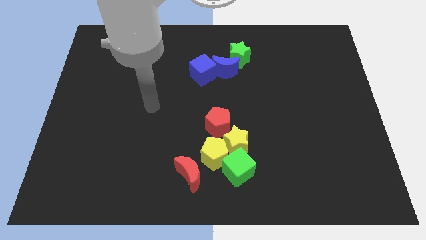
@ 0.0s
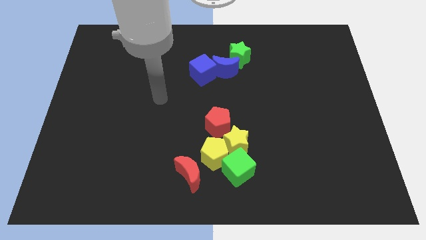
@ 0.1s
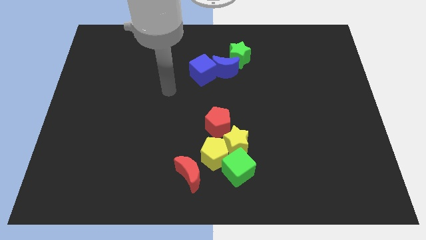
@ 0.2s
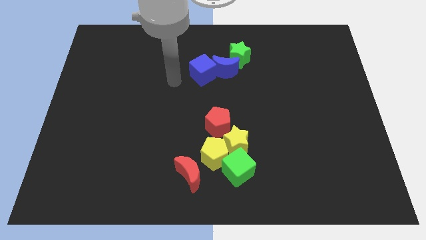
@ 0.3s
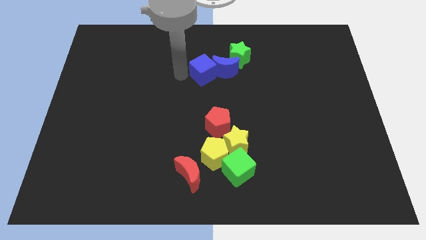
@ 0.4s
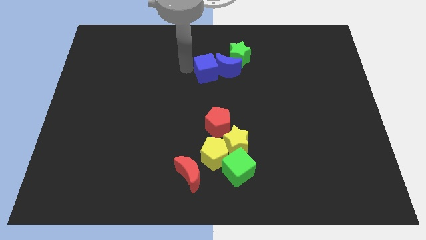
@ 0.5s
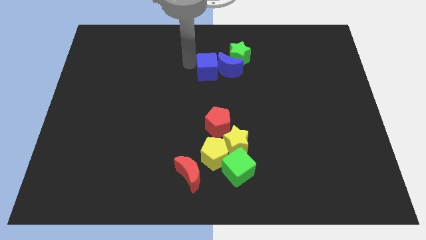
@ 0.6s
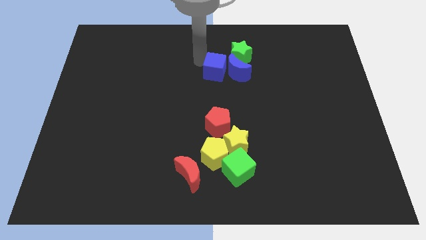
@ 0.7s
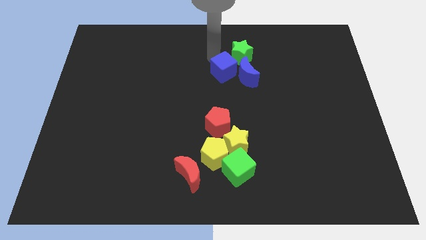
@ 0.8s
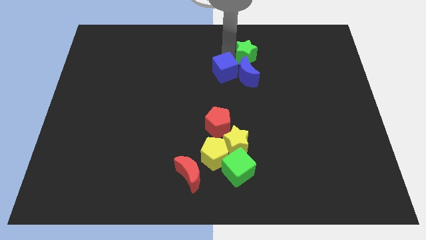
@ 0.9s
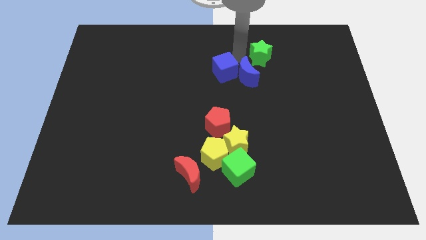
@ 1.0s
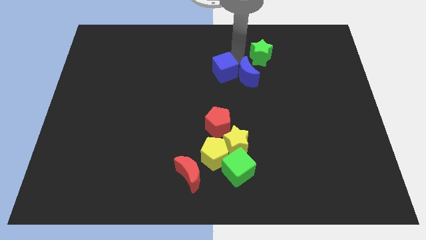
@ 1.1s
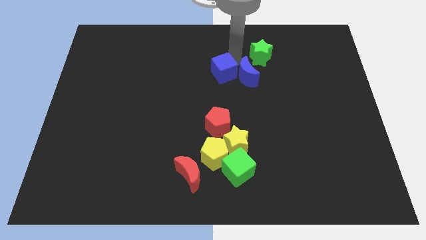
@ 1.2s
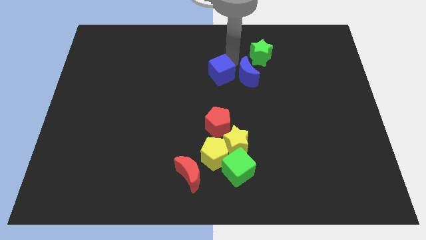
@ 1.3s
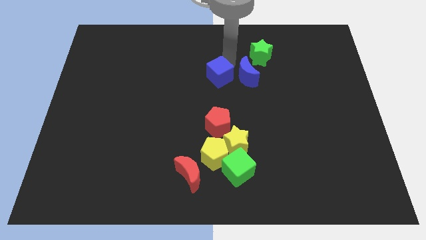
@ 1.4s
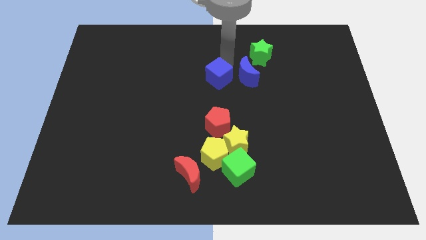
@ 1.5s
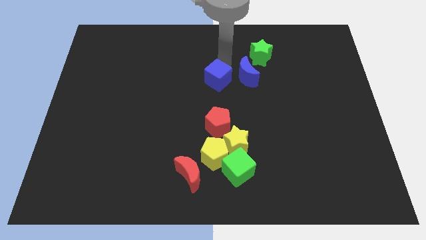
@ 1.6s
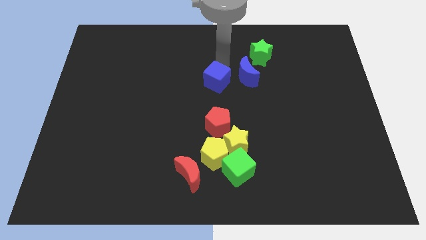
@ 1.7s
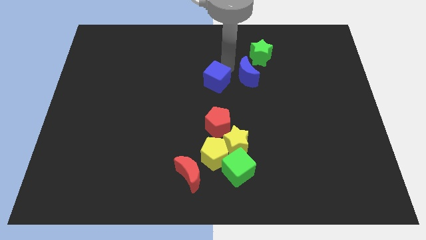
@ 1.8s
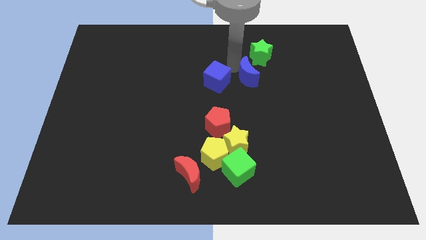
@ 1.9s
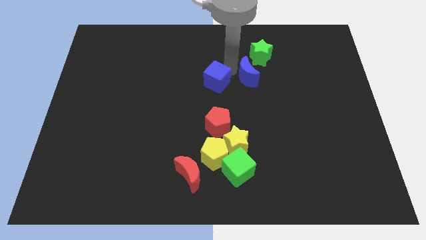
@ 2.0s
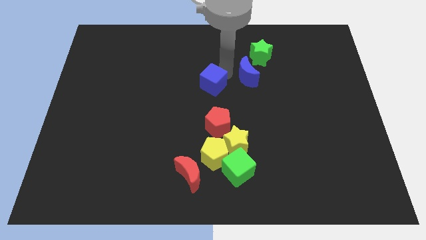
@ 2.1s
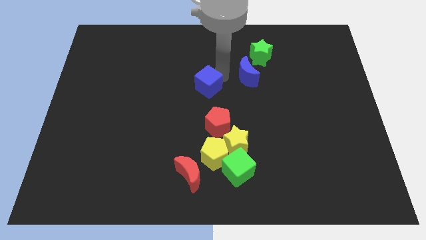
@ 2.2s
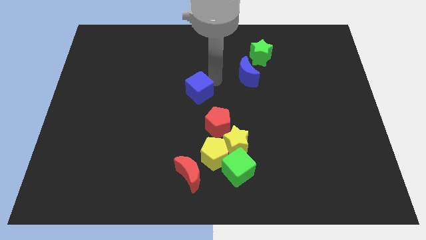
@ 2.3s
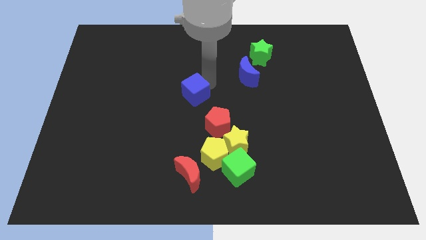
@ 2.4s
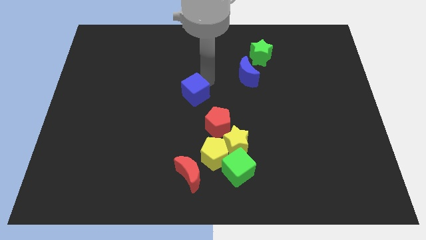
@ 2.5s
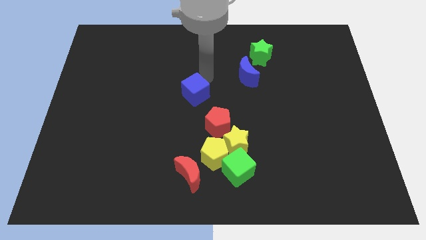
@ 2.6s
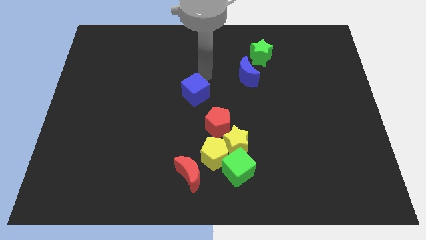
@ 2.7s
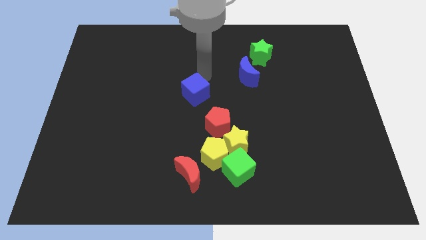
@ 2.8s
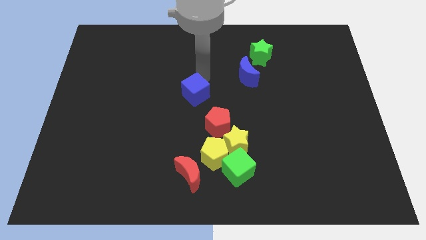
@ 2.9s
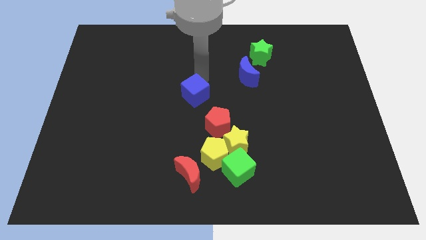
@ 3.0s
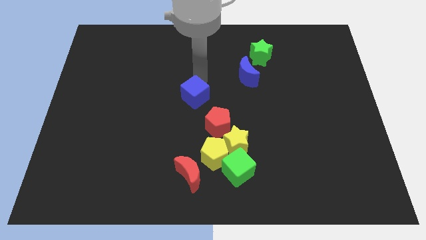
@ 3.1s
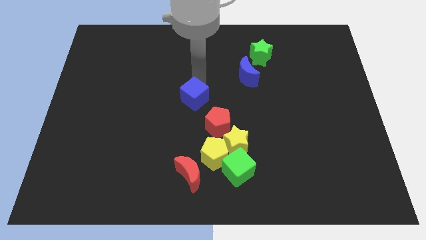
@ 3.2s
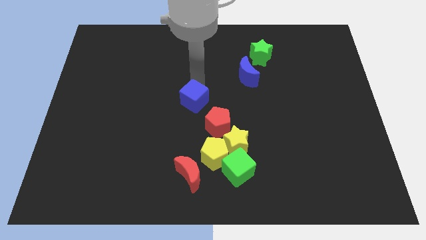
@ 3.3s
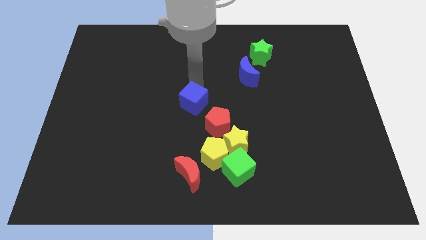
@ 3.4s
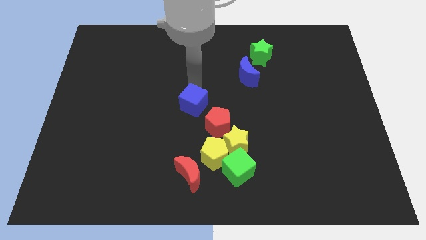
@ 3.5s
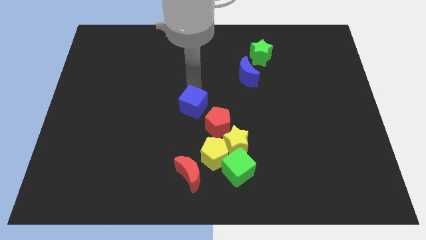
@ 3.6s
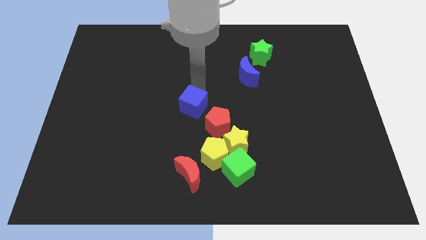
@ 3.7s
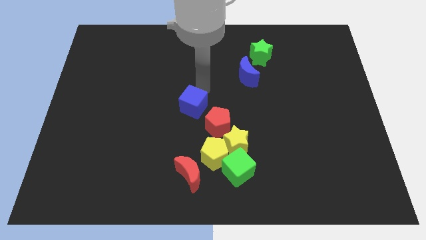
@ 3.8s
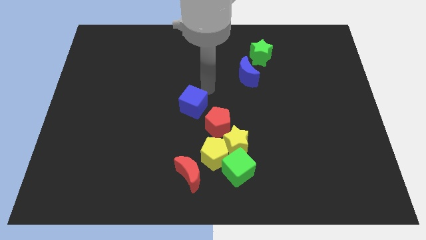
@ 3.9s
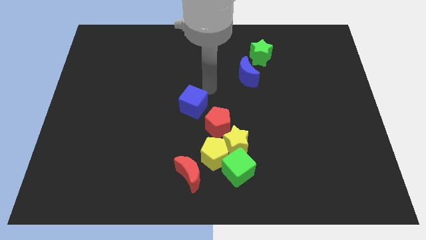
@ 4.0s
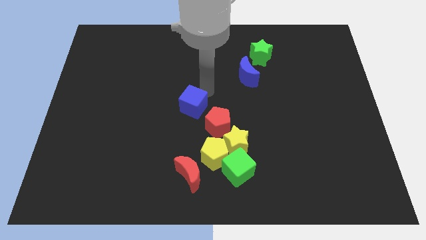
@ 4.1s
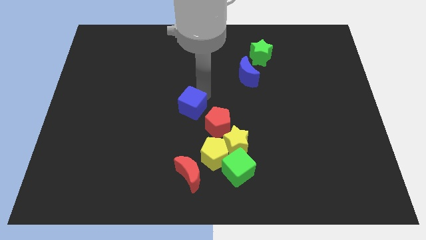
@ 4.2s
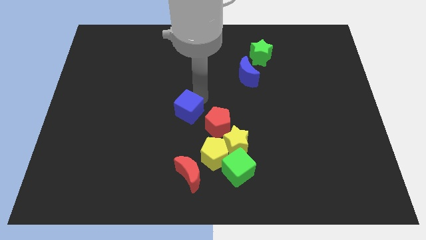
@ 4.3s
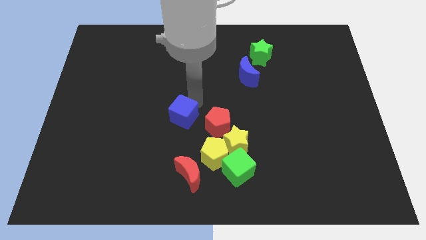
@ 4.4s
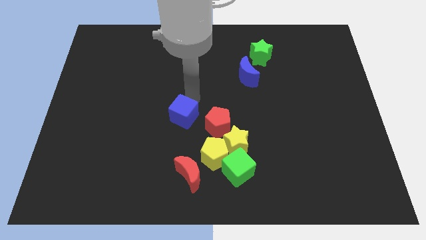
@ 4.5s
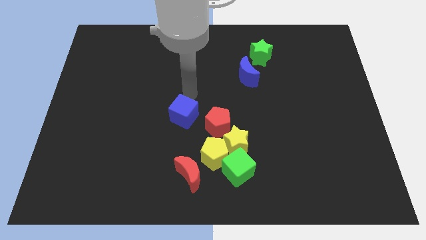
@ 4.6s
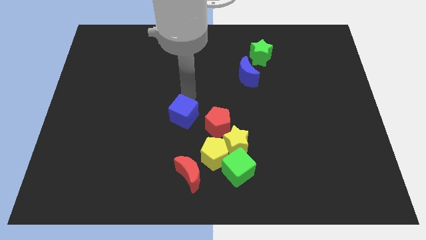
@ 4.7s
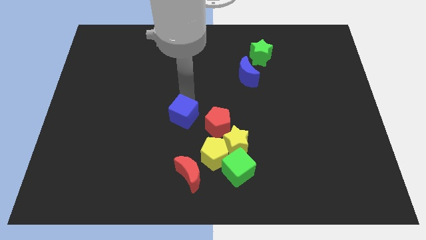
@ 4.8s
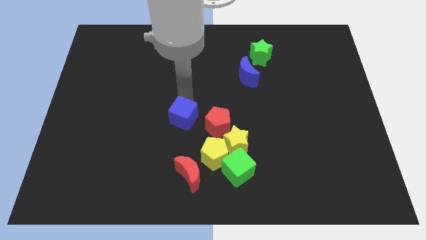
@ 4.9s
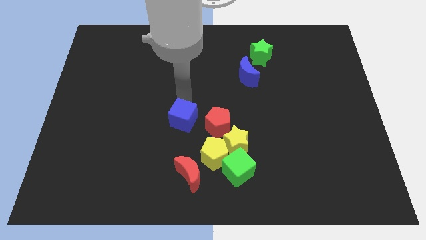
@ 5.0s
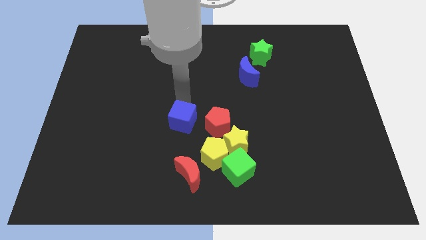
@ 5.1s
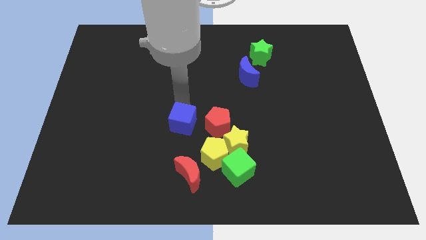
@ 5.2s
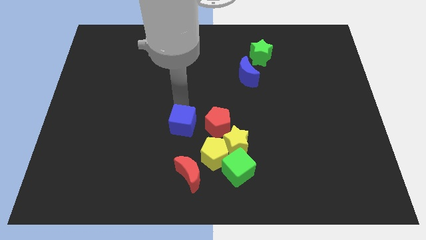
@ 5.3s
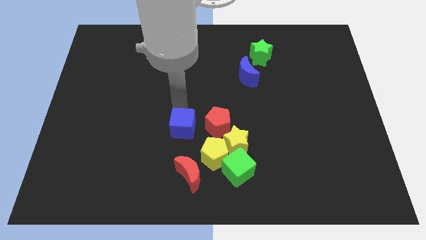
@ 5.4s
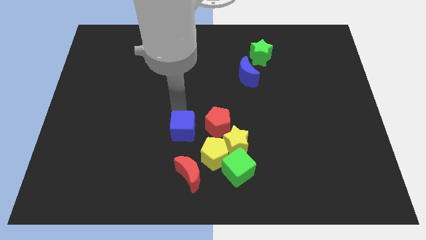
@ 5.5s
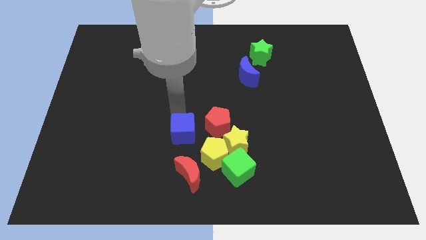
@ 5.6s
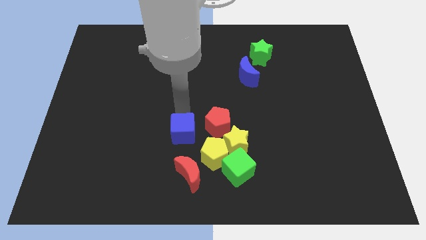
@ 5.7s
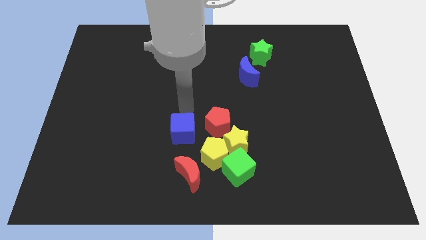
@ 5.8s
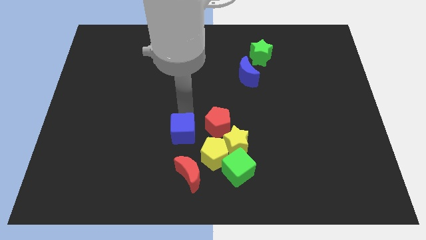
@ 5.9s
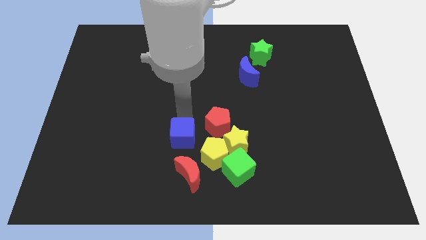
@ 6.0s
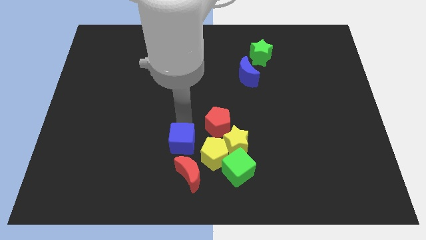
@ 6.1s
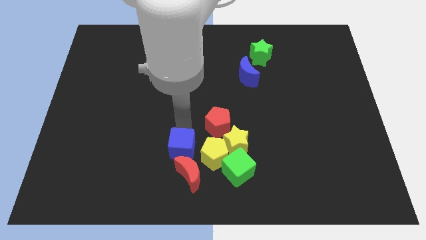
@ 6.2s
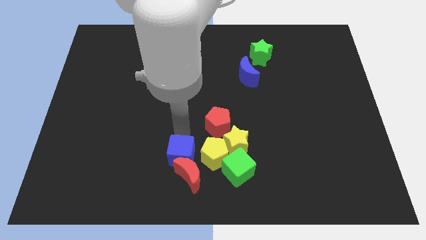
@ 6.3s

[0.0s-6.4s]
push the blue cube next to the red moon

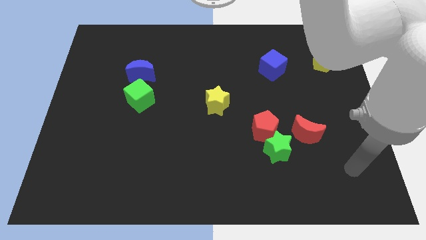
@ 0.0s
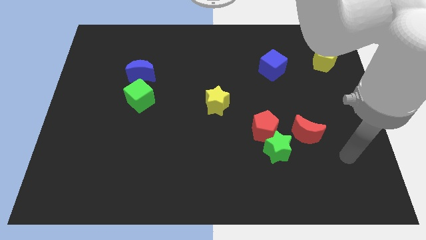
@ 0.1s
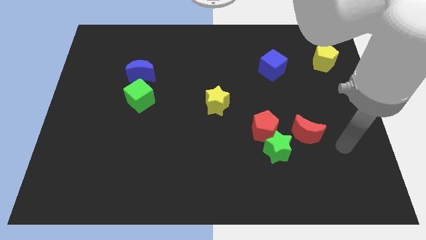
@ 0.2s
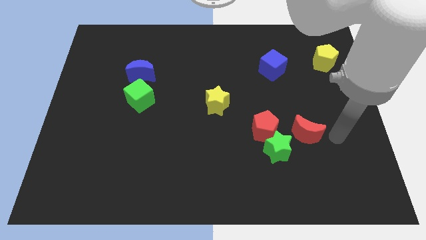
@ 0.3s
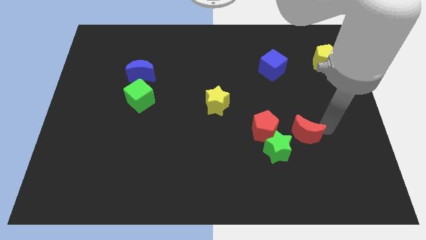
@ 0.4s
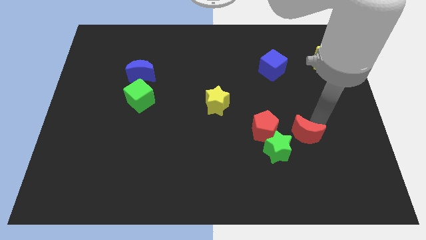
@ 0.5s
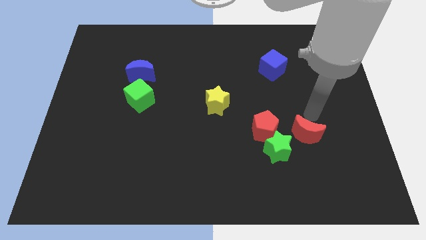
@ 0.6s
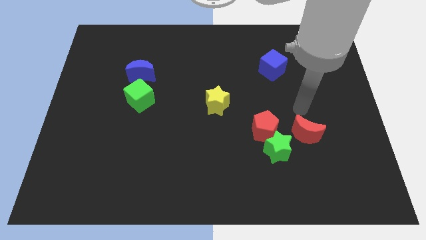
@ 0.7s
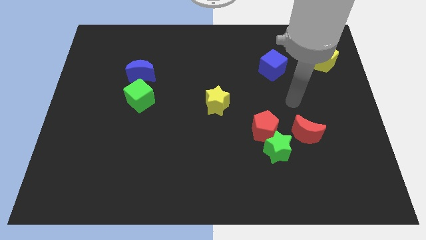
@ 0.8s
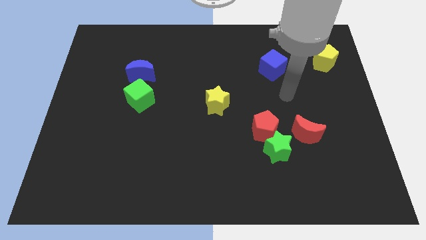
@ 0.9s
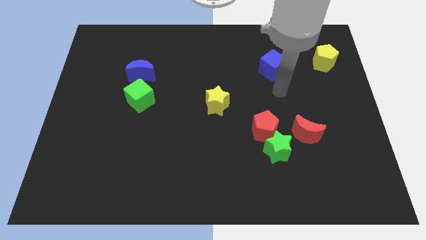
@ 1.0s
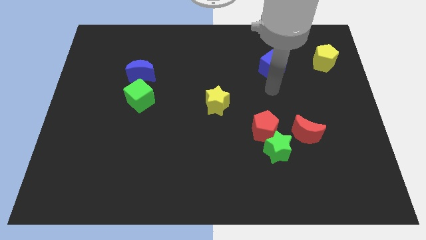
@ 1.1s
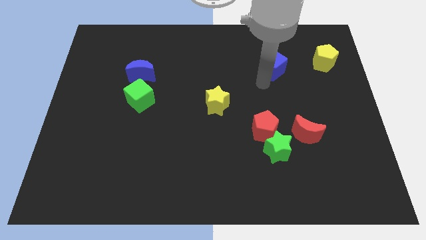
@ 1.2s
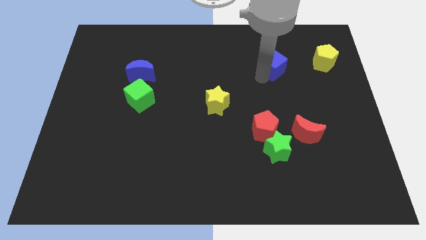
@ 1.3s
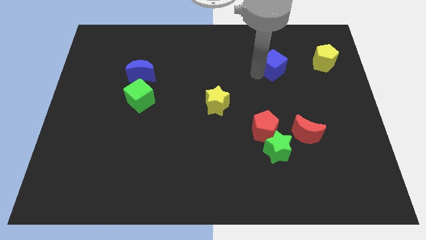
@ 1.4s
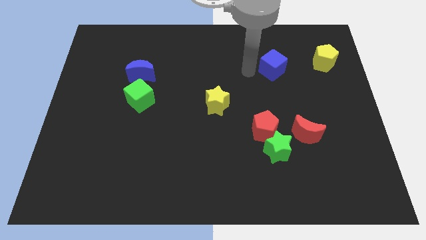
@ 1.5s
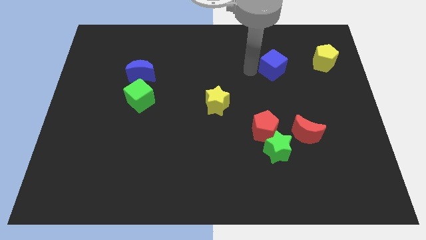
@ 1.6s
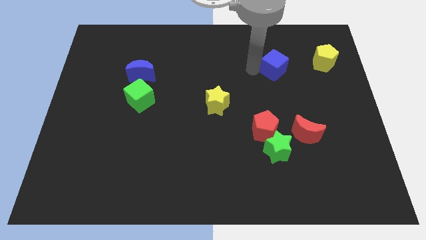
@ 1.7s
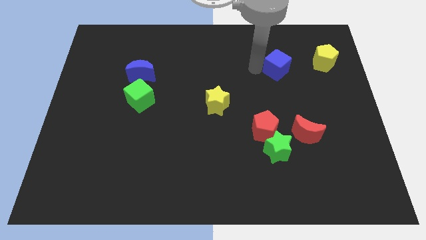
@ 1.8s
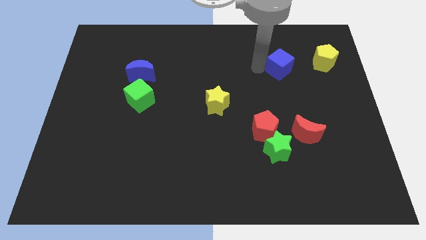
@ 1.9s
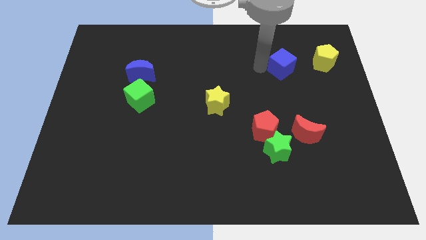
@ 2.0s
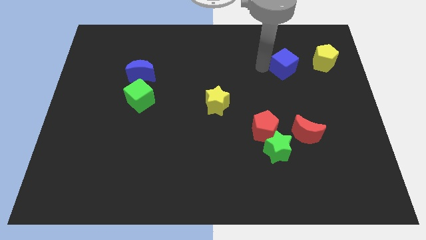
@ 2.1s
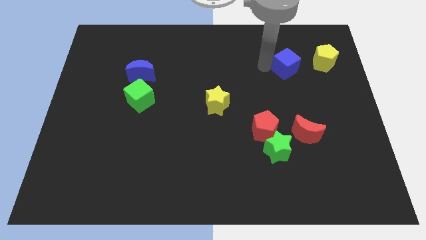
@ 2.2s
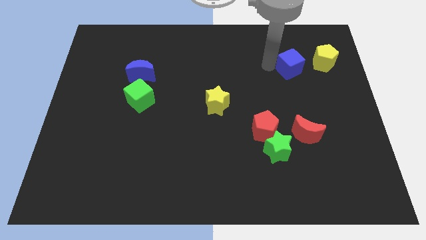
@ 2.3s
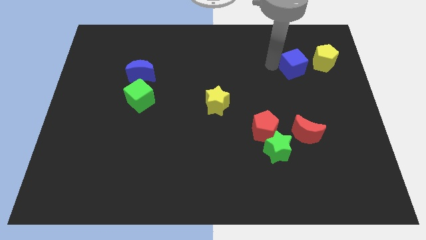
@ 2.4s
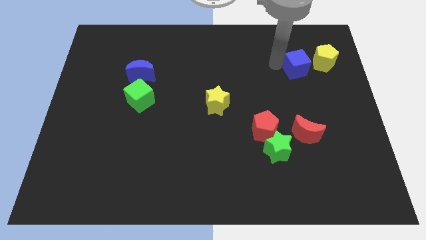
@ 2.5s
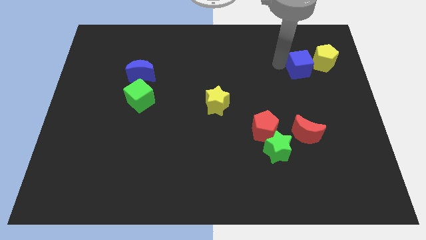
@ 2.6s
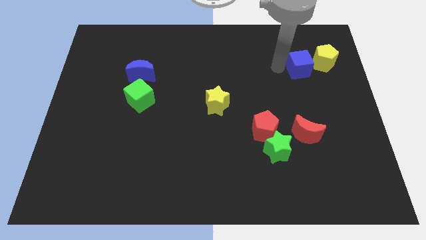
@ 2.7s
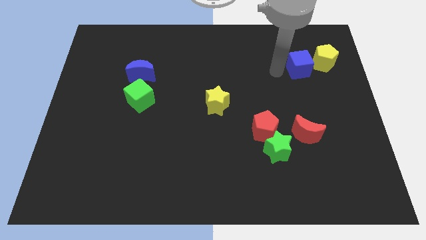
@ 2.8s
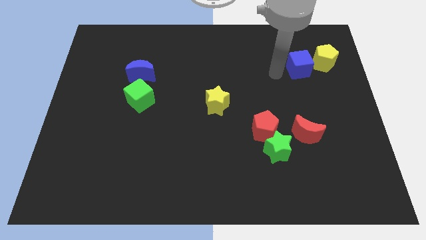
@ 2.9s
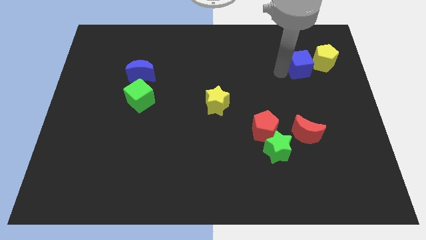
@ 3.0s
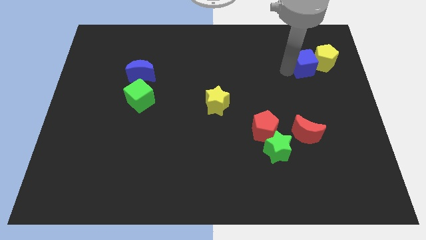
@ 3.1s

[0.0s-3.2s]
put the blue cube to the yellow pentagon
